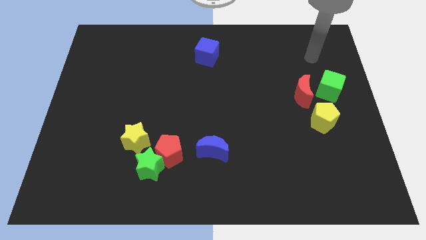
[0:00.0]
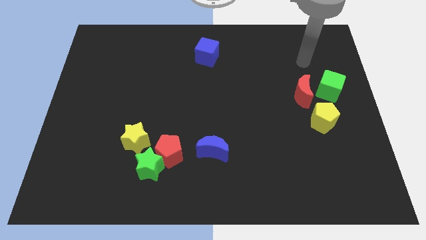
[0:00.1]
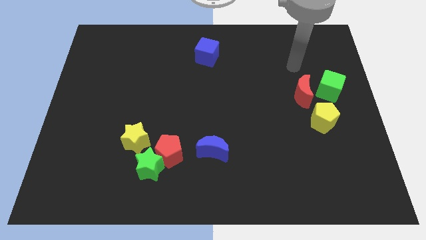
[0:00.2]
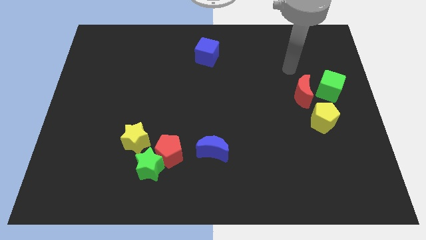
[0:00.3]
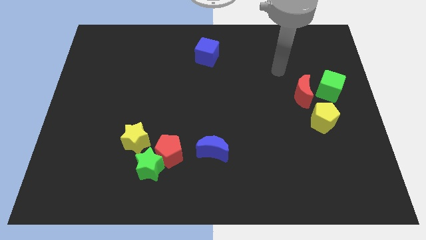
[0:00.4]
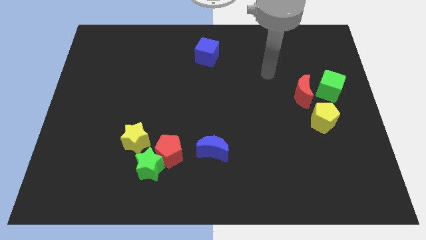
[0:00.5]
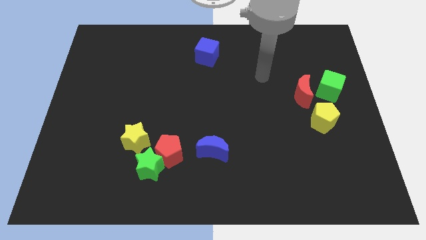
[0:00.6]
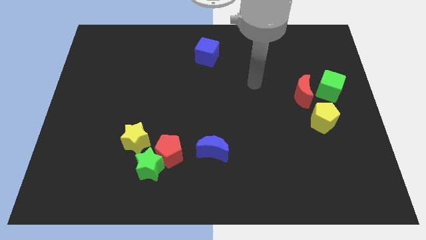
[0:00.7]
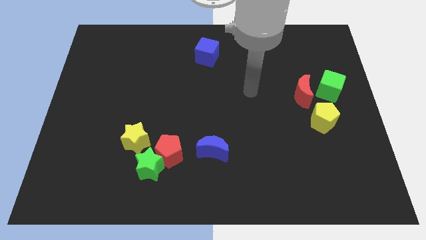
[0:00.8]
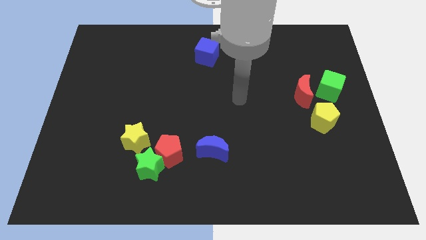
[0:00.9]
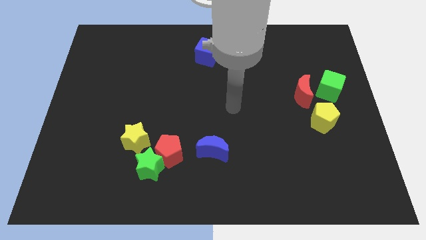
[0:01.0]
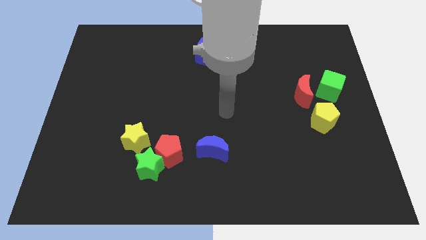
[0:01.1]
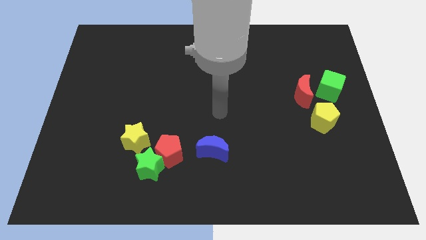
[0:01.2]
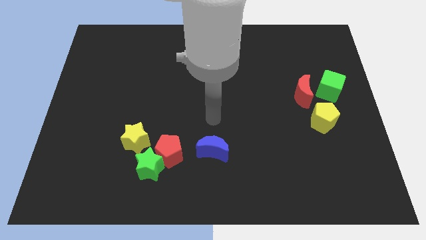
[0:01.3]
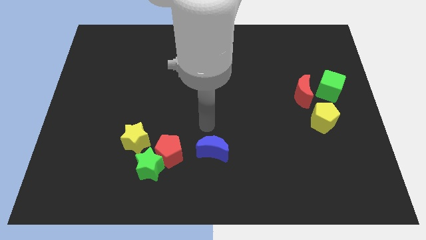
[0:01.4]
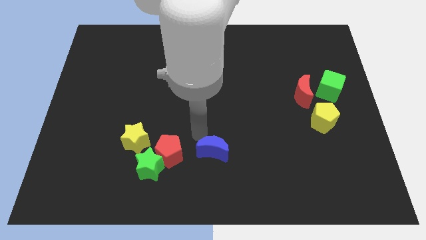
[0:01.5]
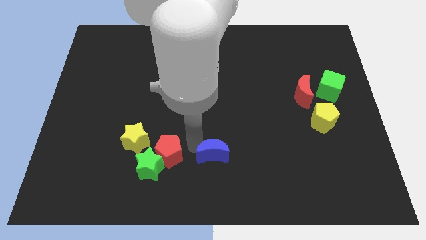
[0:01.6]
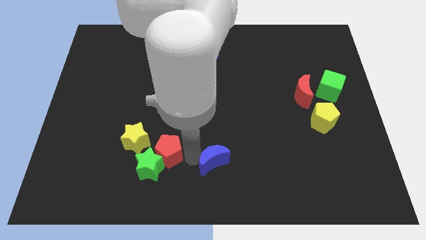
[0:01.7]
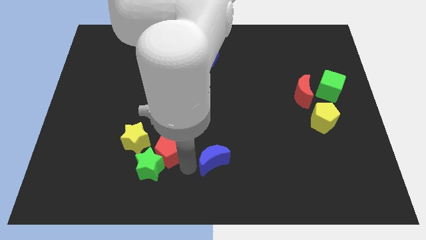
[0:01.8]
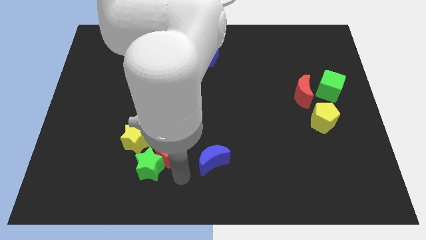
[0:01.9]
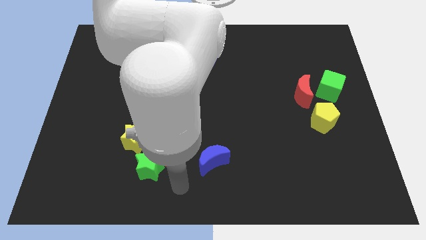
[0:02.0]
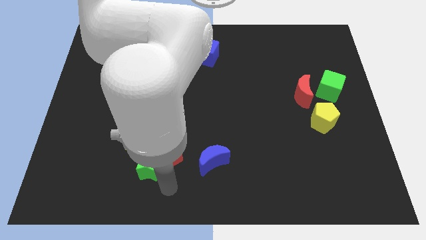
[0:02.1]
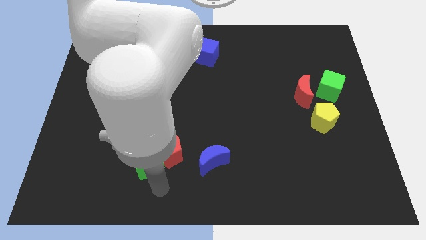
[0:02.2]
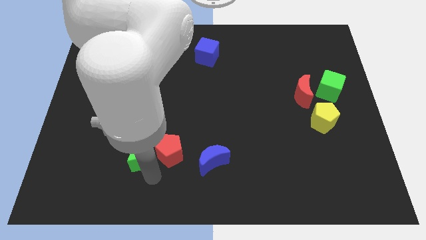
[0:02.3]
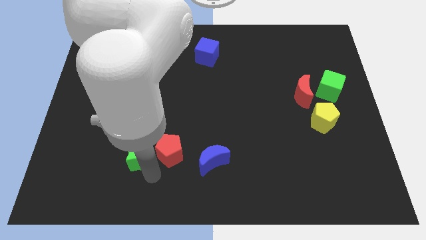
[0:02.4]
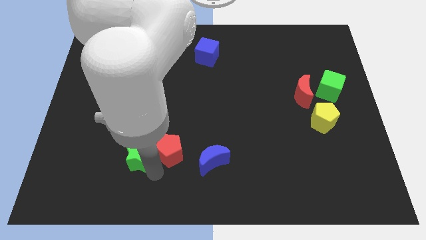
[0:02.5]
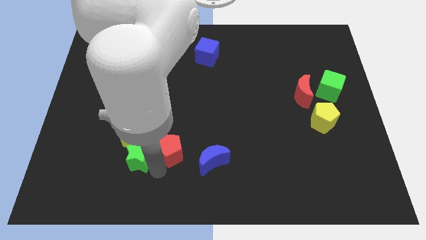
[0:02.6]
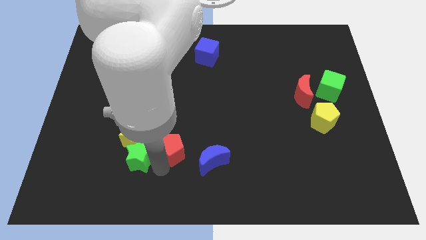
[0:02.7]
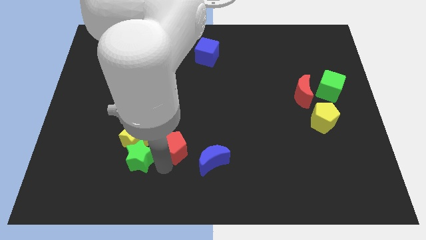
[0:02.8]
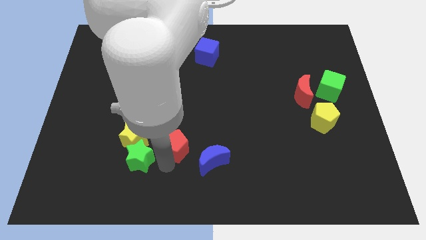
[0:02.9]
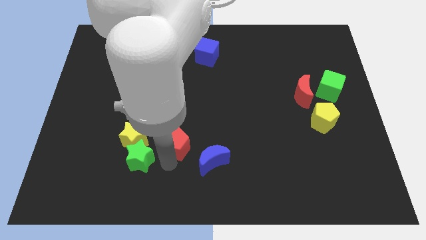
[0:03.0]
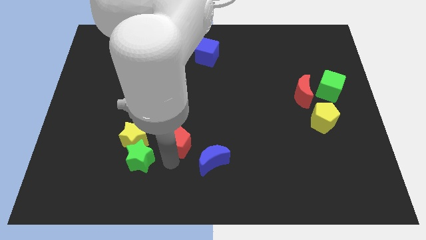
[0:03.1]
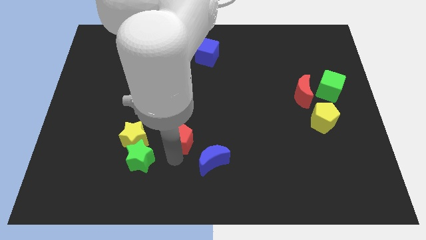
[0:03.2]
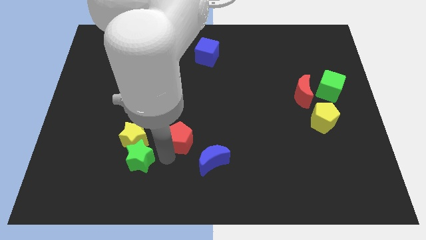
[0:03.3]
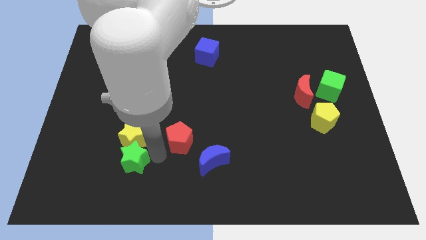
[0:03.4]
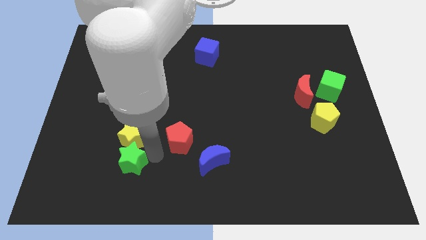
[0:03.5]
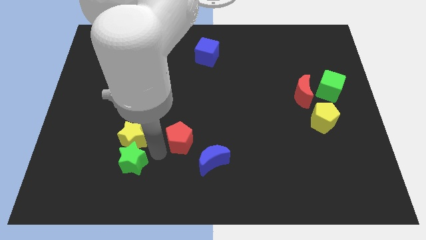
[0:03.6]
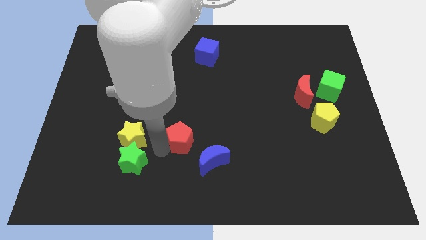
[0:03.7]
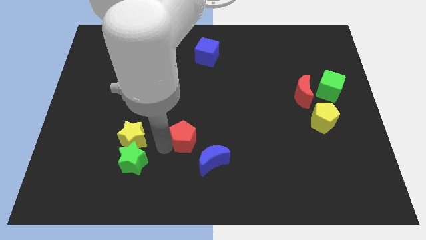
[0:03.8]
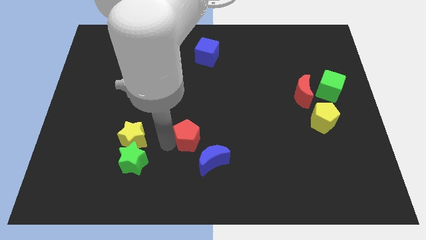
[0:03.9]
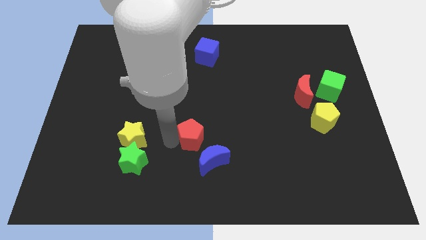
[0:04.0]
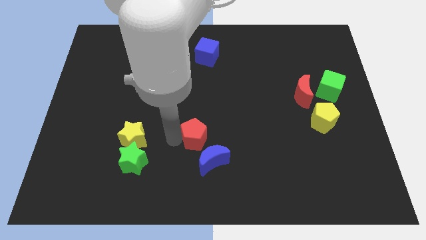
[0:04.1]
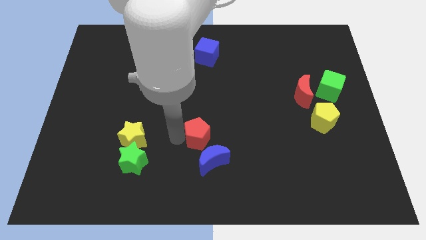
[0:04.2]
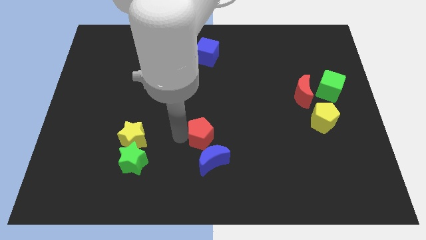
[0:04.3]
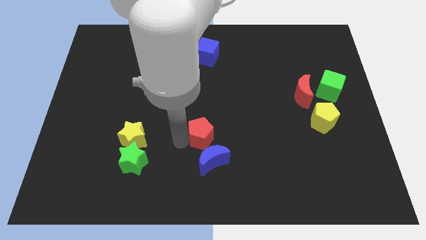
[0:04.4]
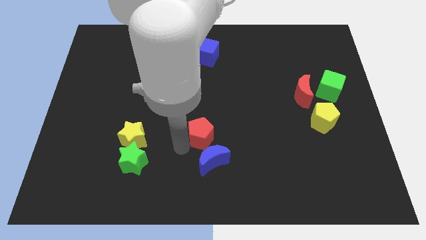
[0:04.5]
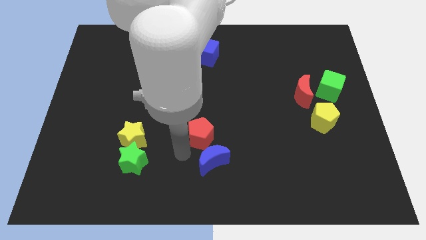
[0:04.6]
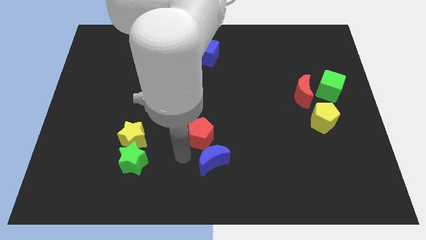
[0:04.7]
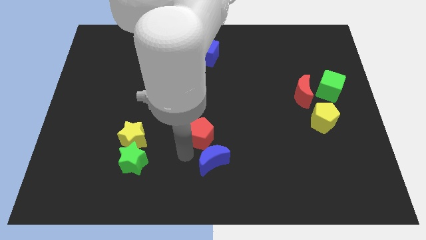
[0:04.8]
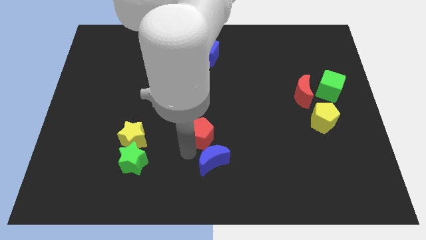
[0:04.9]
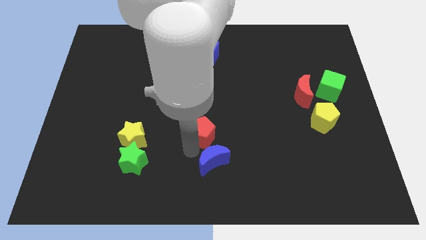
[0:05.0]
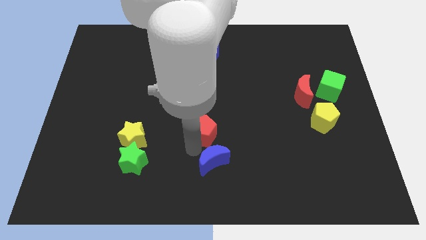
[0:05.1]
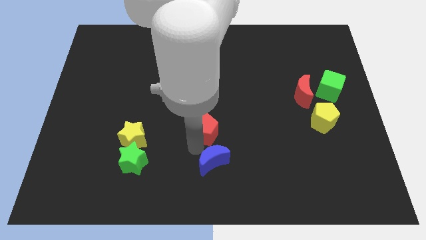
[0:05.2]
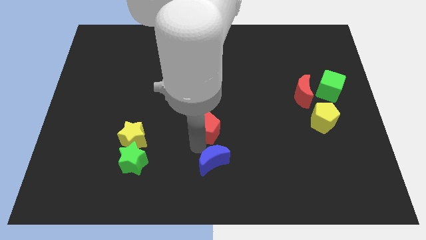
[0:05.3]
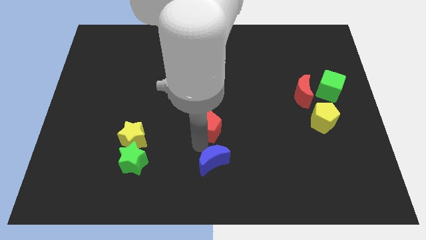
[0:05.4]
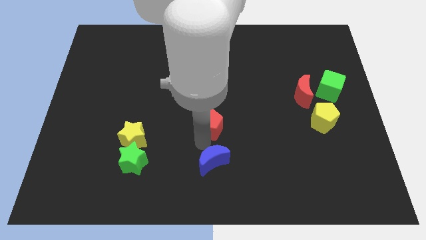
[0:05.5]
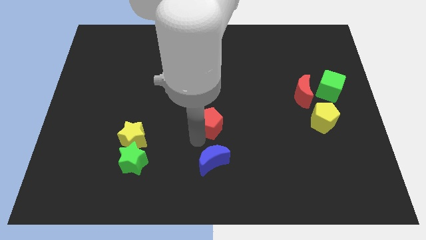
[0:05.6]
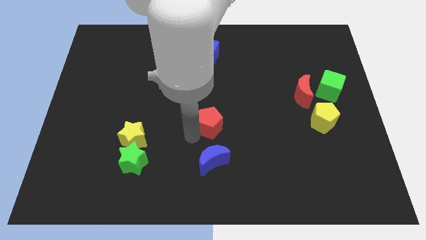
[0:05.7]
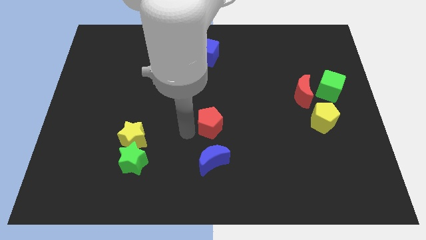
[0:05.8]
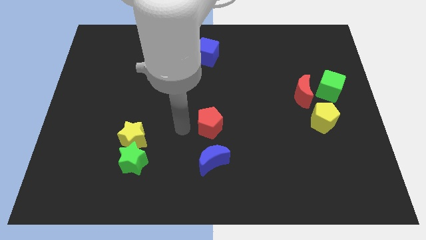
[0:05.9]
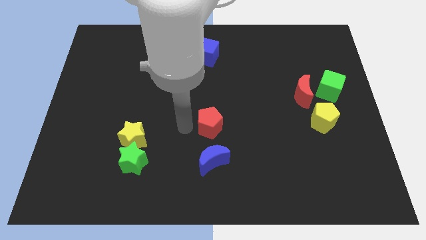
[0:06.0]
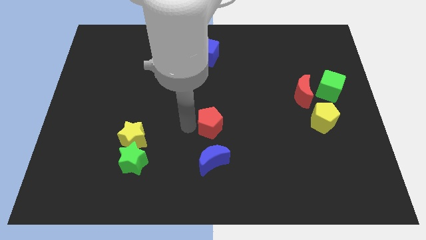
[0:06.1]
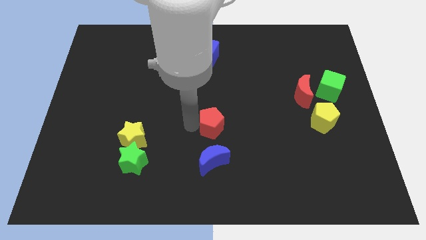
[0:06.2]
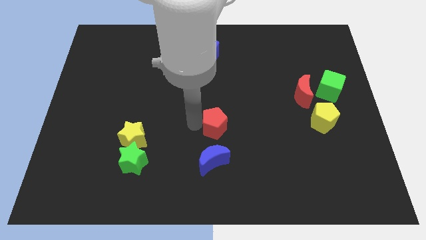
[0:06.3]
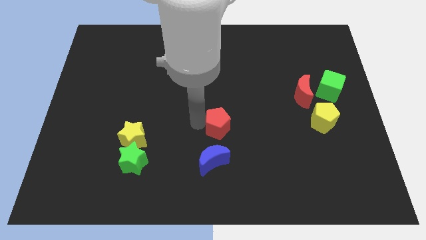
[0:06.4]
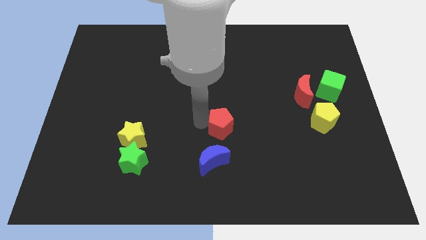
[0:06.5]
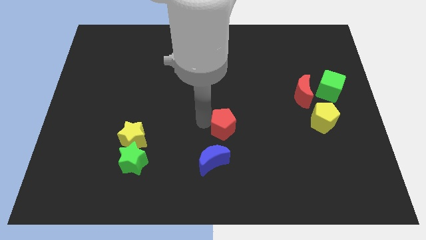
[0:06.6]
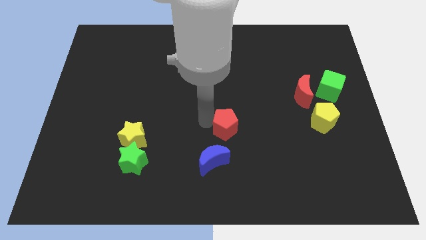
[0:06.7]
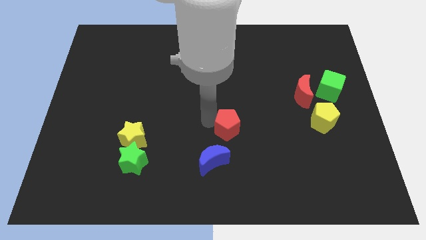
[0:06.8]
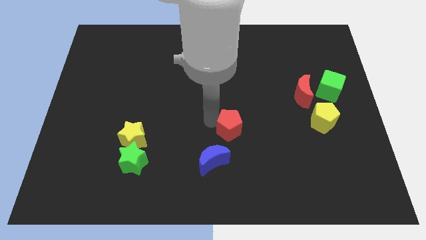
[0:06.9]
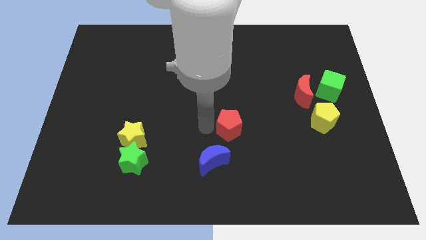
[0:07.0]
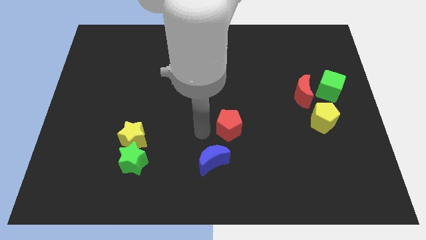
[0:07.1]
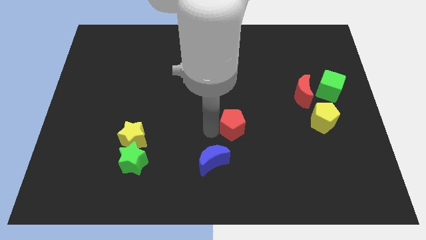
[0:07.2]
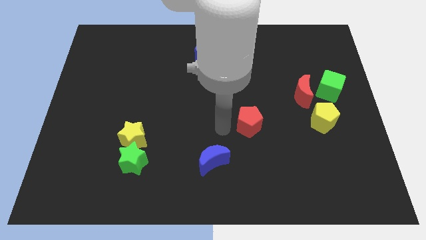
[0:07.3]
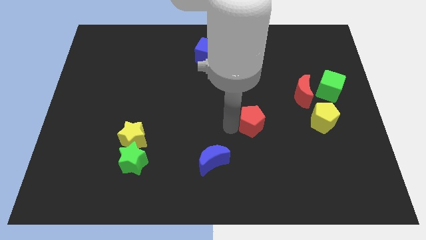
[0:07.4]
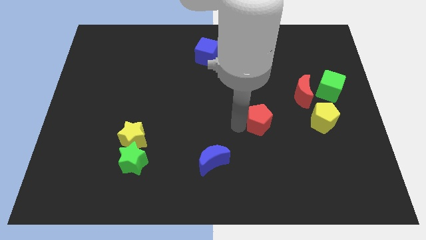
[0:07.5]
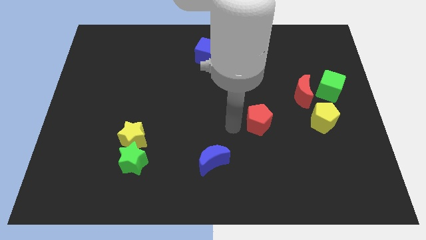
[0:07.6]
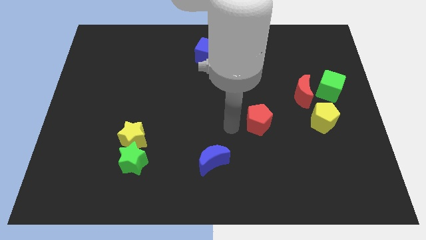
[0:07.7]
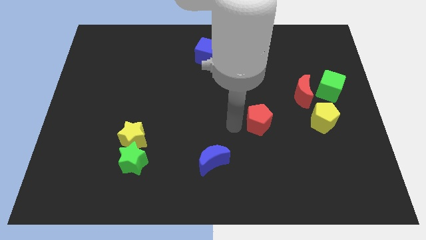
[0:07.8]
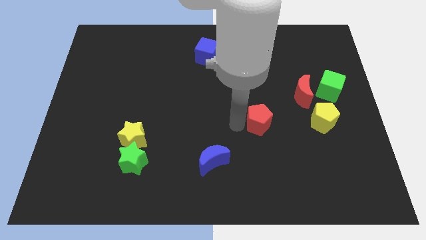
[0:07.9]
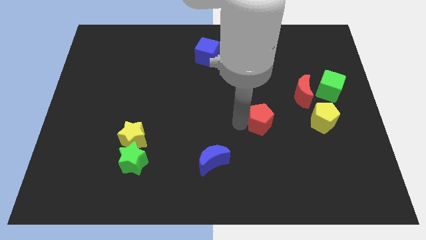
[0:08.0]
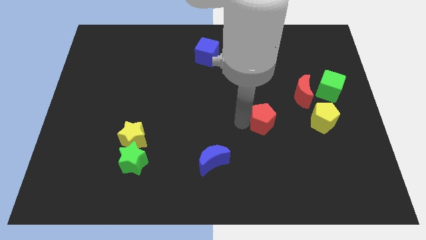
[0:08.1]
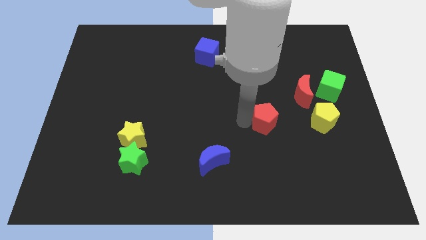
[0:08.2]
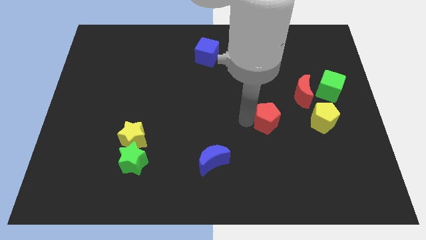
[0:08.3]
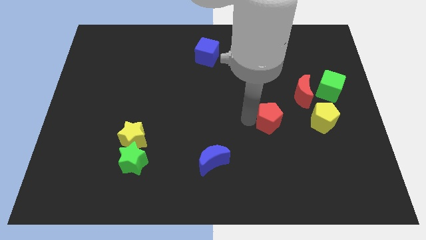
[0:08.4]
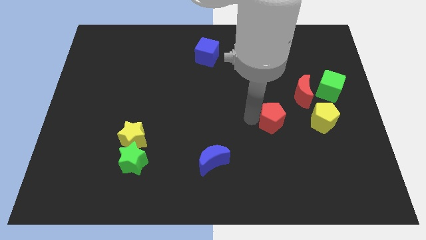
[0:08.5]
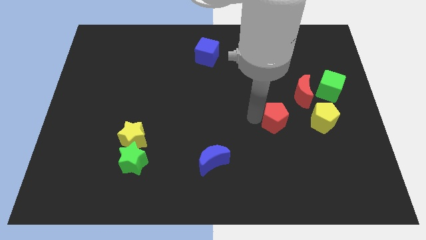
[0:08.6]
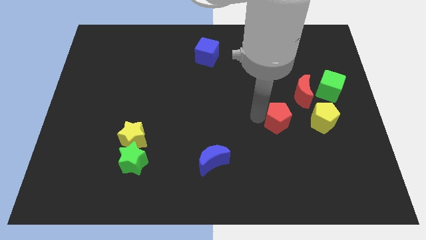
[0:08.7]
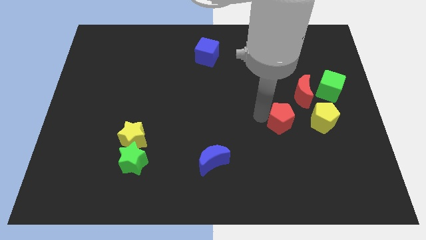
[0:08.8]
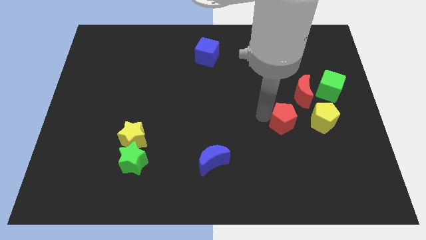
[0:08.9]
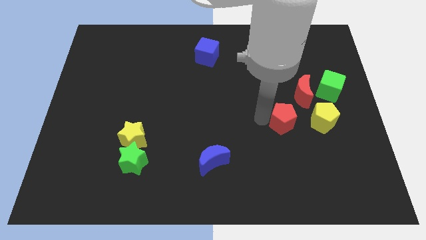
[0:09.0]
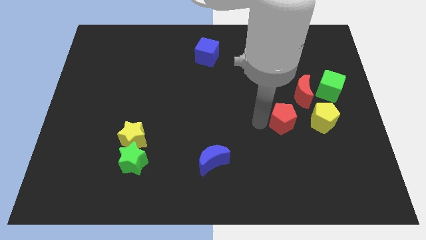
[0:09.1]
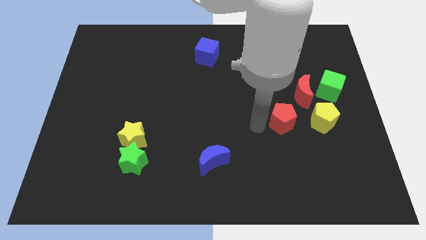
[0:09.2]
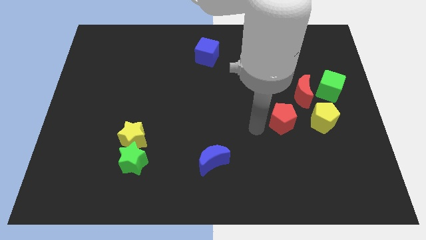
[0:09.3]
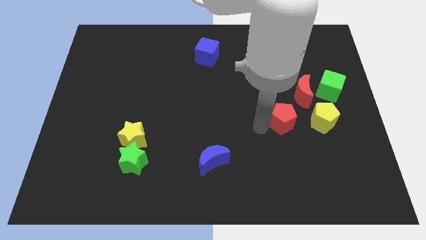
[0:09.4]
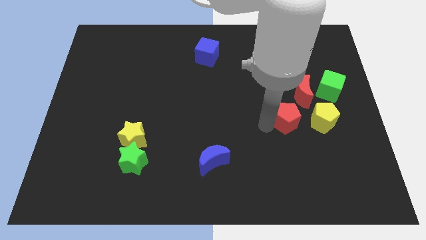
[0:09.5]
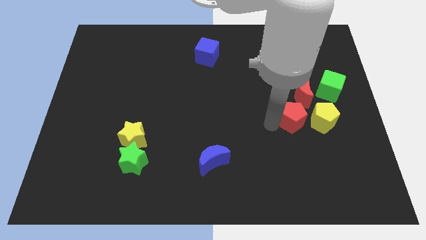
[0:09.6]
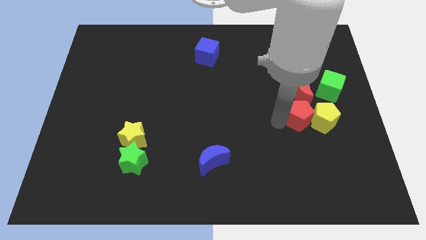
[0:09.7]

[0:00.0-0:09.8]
move the red pentagon close to the yellow pentagon
